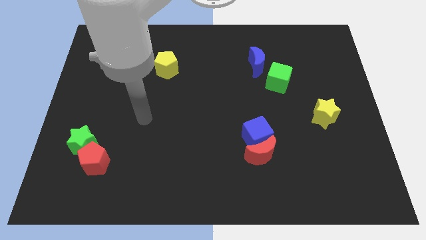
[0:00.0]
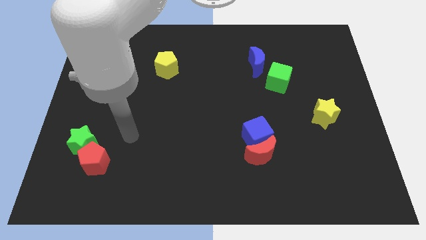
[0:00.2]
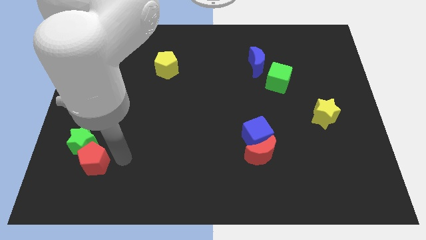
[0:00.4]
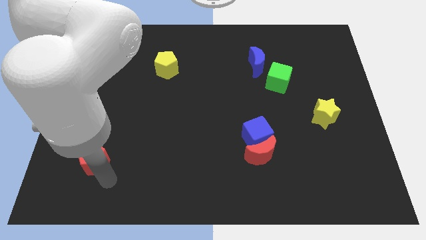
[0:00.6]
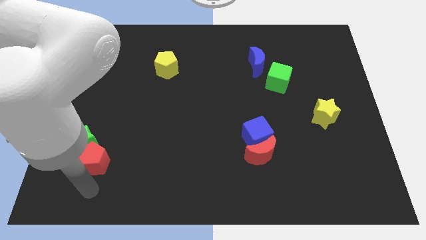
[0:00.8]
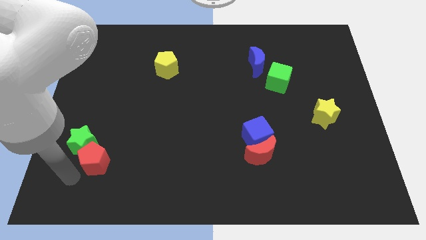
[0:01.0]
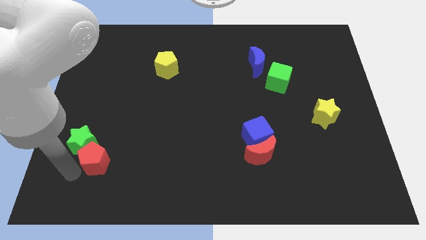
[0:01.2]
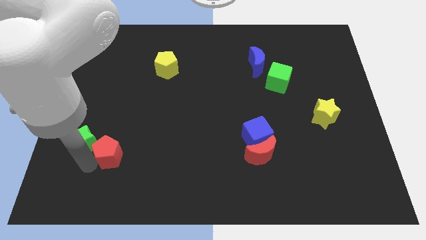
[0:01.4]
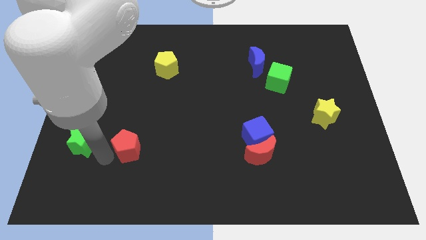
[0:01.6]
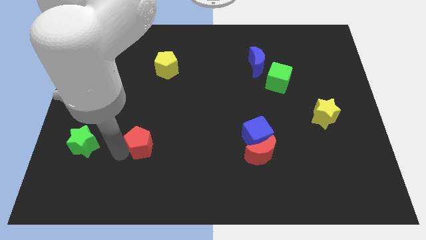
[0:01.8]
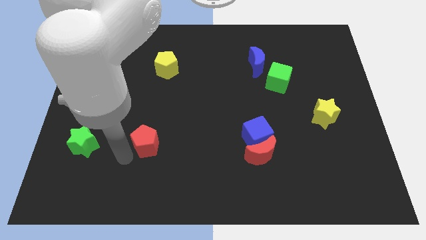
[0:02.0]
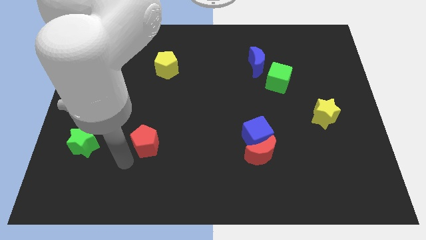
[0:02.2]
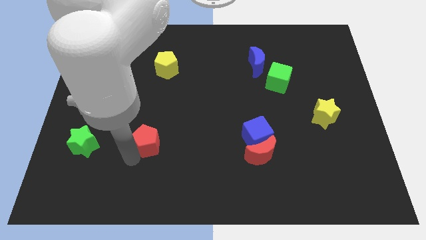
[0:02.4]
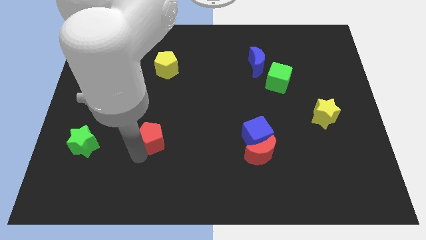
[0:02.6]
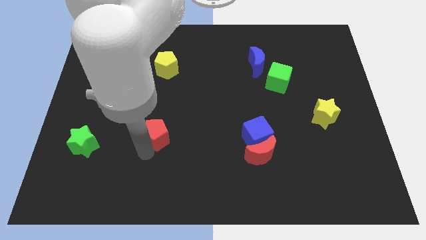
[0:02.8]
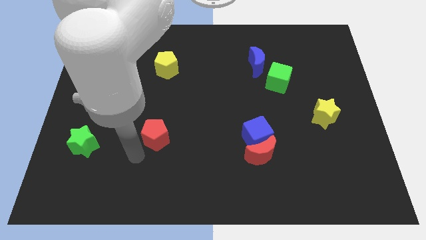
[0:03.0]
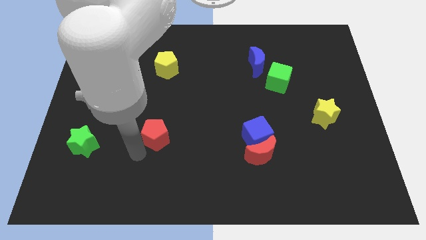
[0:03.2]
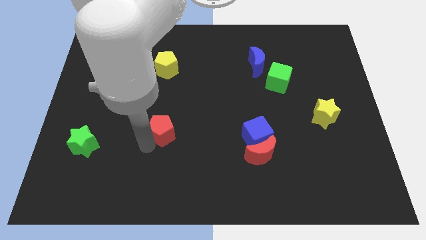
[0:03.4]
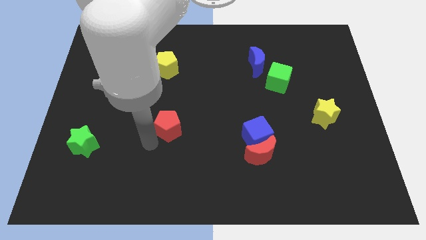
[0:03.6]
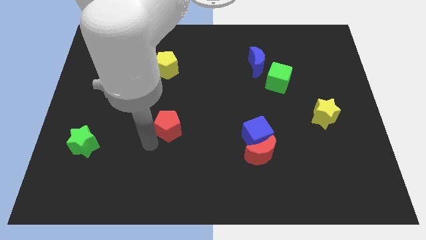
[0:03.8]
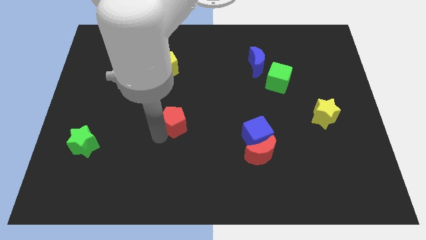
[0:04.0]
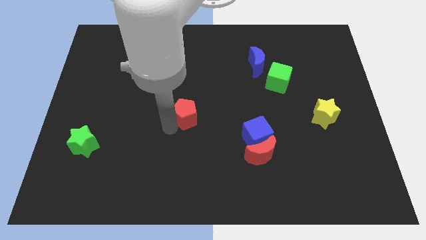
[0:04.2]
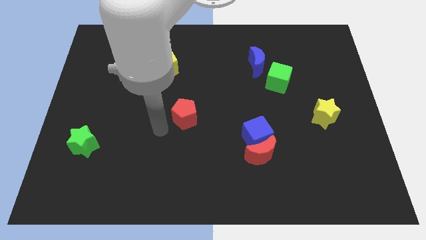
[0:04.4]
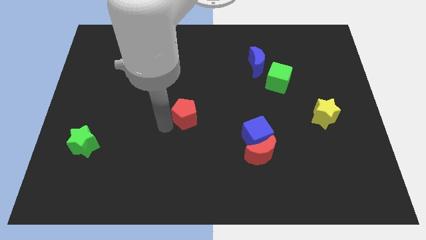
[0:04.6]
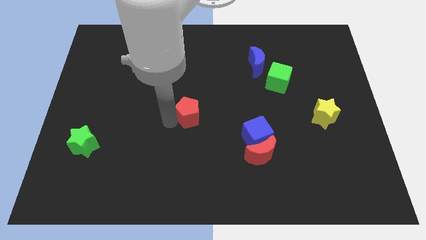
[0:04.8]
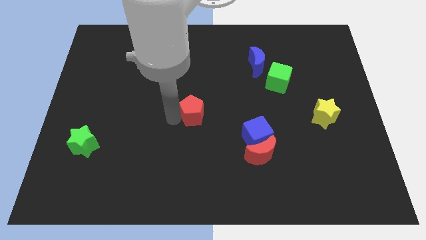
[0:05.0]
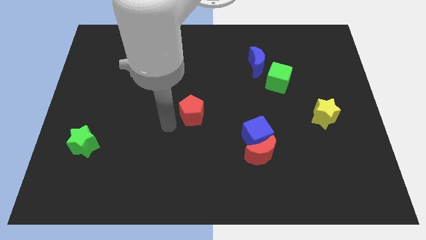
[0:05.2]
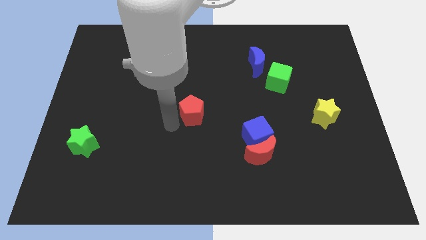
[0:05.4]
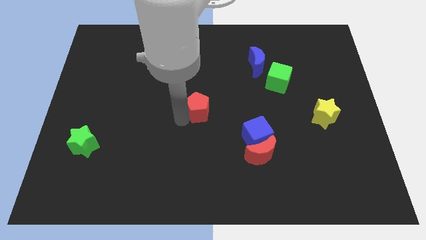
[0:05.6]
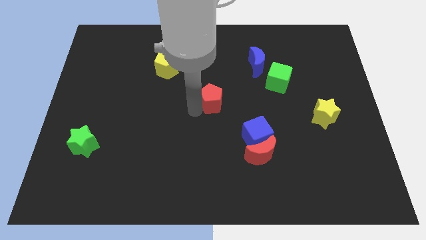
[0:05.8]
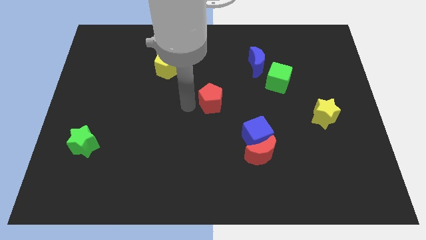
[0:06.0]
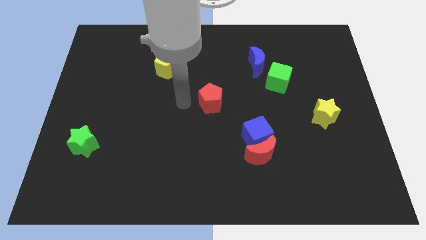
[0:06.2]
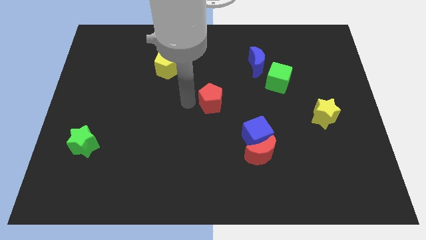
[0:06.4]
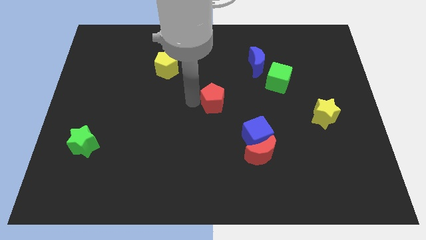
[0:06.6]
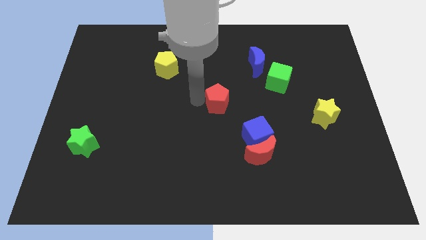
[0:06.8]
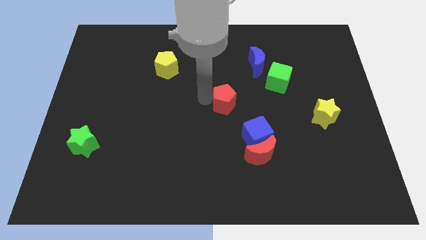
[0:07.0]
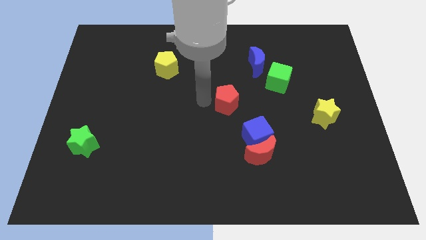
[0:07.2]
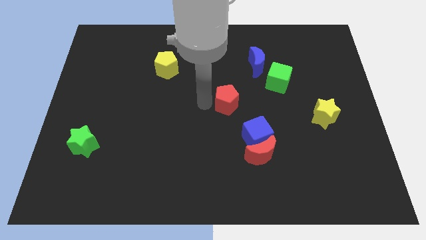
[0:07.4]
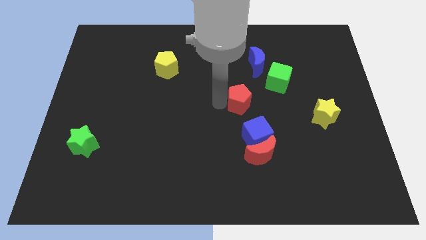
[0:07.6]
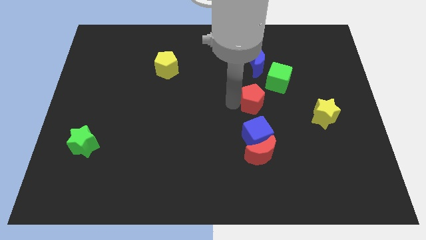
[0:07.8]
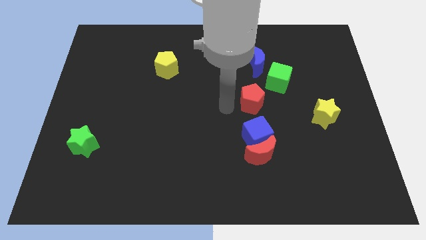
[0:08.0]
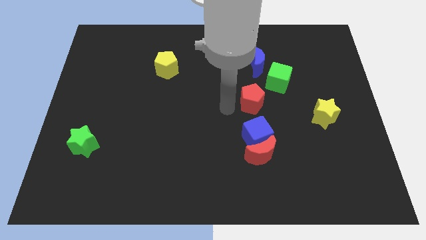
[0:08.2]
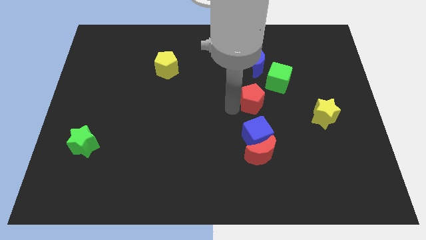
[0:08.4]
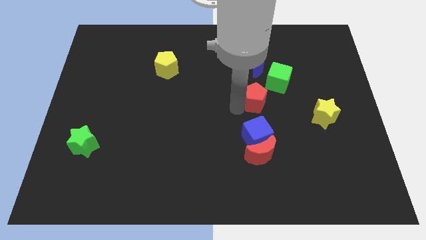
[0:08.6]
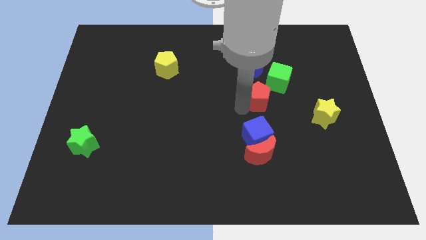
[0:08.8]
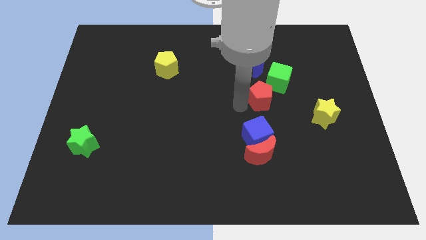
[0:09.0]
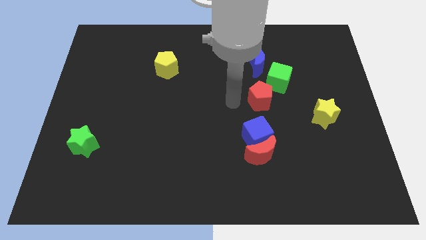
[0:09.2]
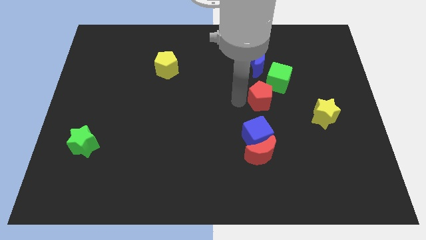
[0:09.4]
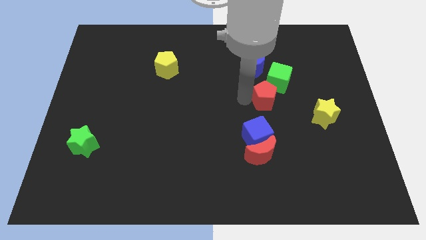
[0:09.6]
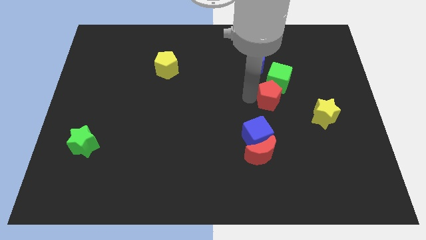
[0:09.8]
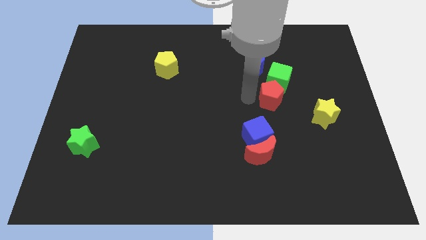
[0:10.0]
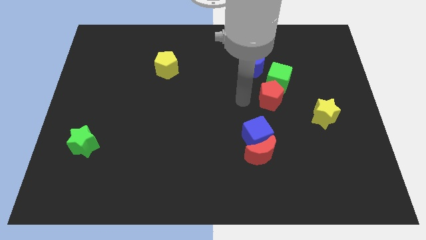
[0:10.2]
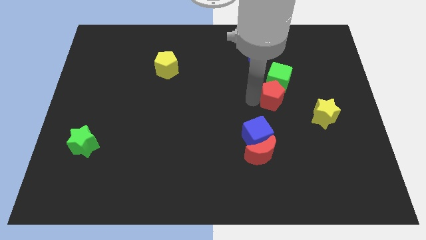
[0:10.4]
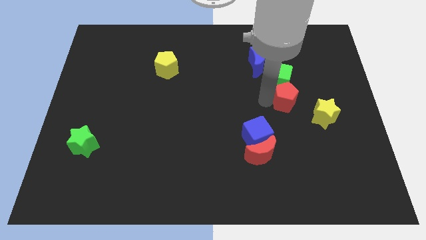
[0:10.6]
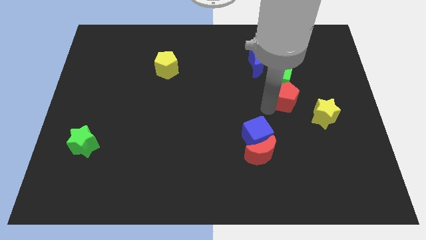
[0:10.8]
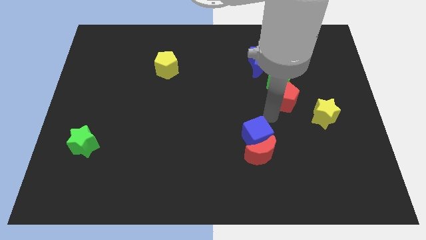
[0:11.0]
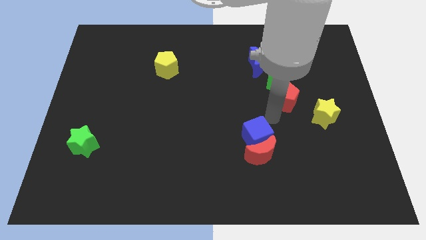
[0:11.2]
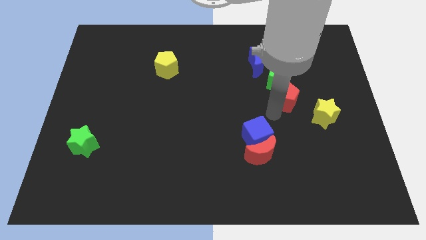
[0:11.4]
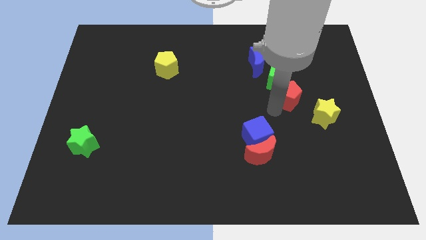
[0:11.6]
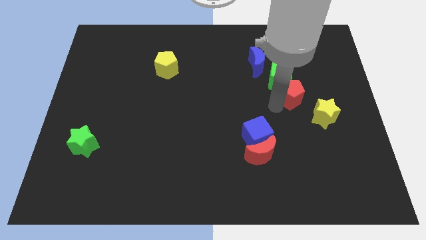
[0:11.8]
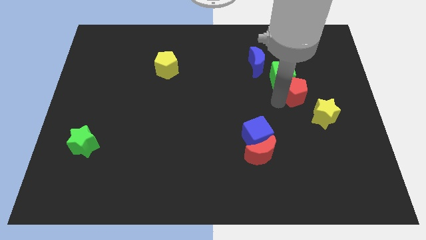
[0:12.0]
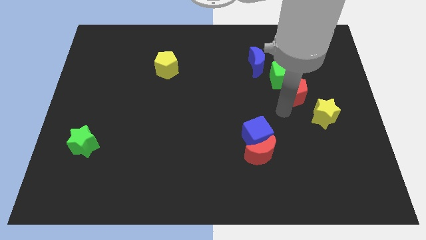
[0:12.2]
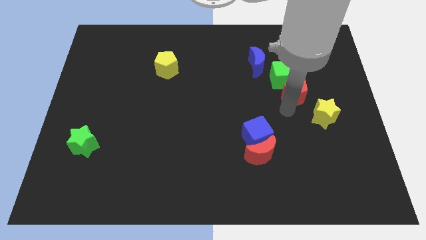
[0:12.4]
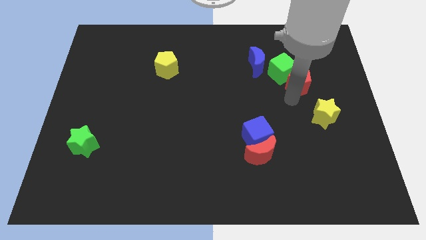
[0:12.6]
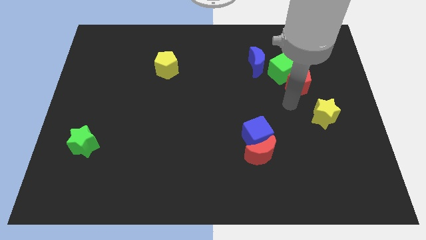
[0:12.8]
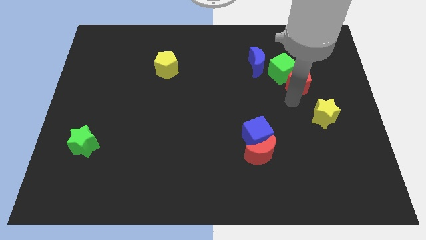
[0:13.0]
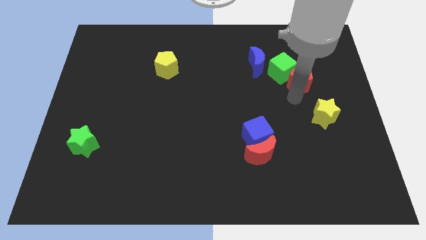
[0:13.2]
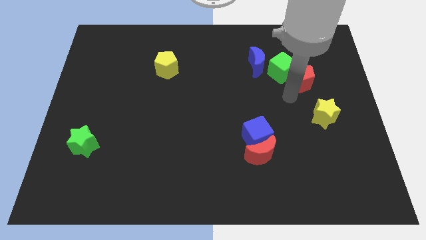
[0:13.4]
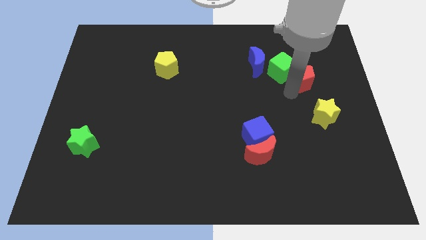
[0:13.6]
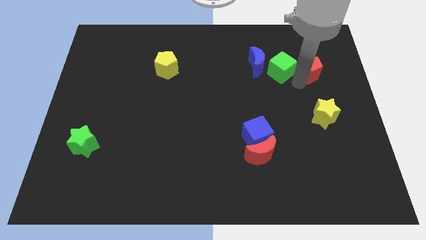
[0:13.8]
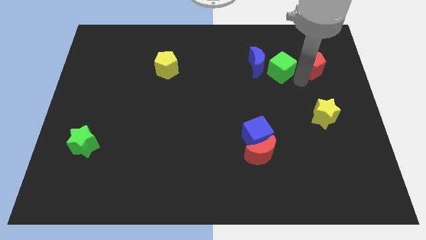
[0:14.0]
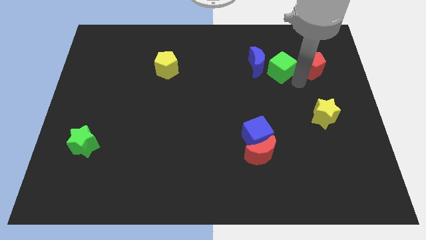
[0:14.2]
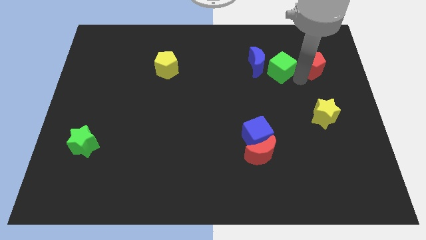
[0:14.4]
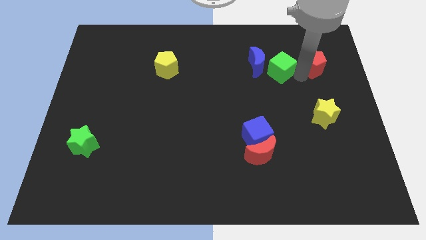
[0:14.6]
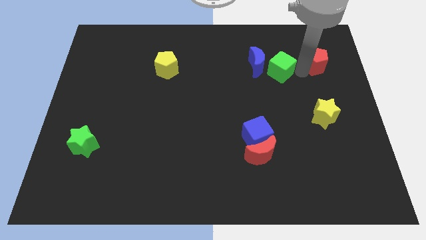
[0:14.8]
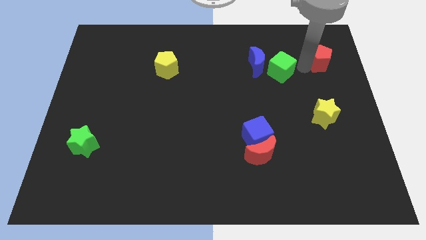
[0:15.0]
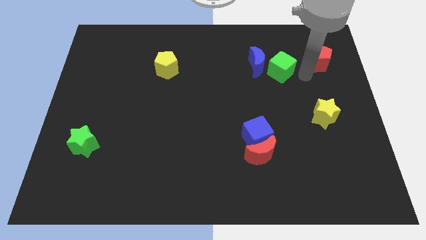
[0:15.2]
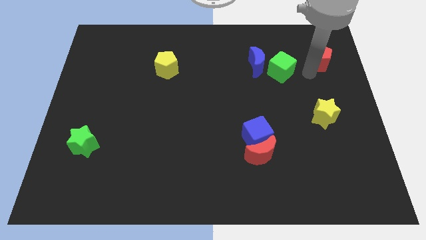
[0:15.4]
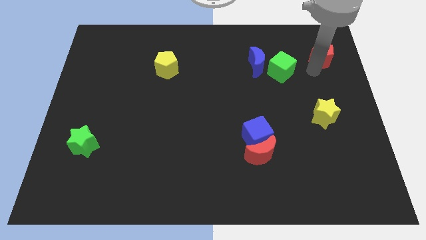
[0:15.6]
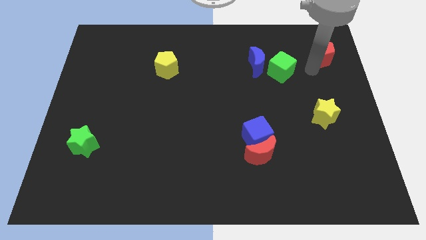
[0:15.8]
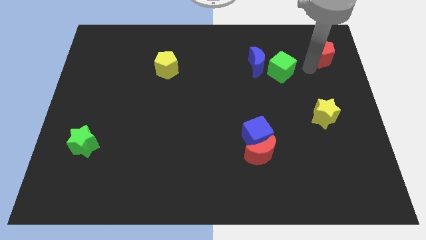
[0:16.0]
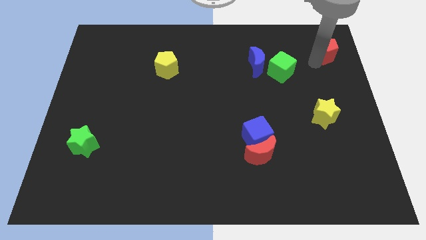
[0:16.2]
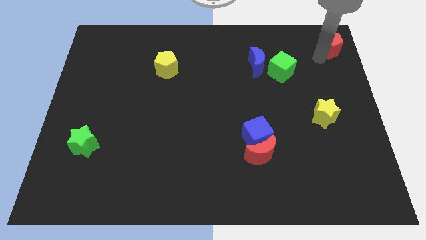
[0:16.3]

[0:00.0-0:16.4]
put the red pentagon to the top right of the board
